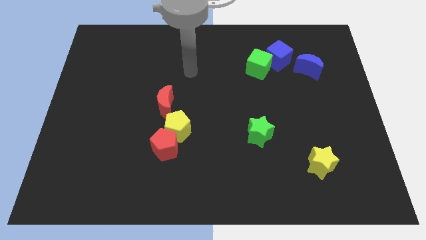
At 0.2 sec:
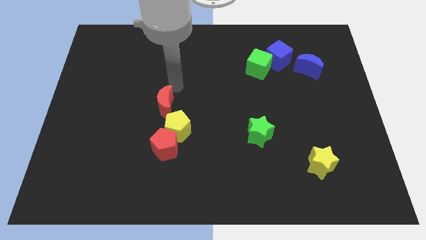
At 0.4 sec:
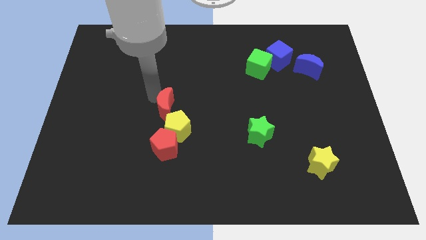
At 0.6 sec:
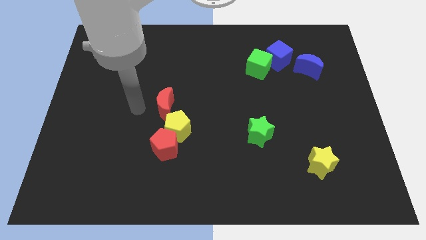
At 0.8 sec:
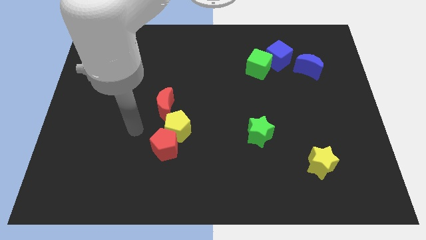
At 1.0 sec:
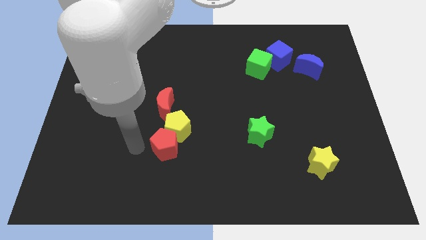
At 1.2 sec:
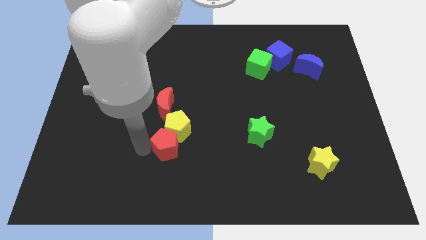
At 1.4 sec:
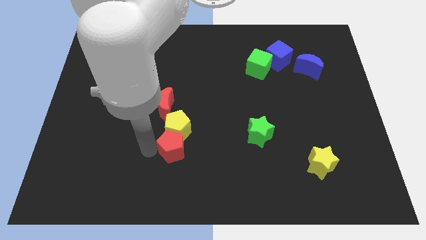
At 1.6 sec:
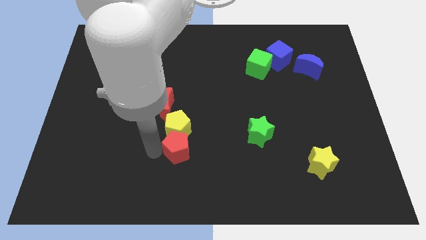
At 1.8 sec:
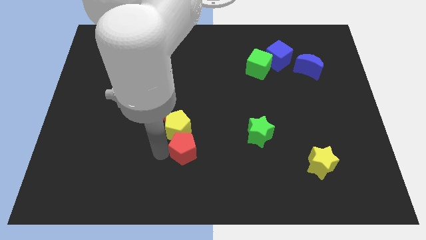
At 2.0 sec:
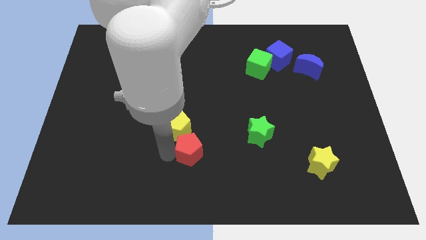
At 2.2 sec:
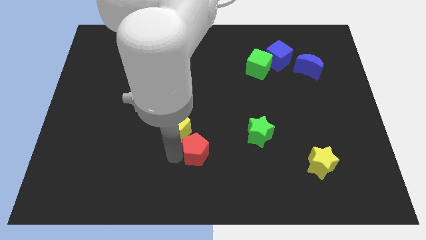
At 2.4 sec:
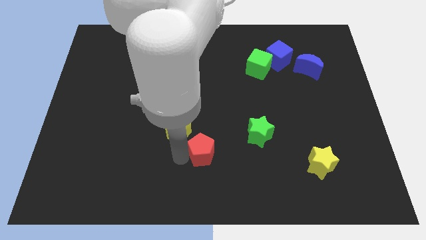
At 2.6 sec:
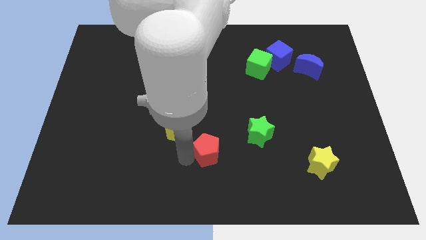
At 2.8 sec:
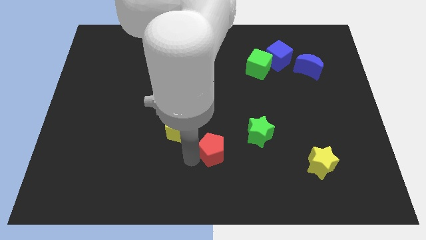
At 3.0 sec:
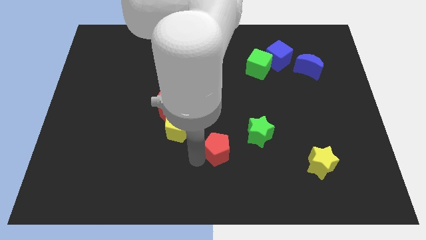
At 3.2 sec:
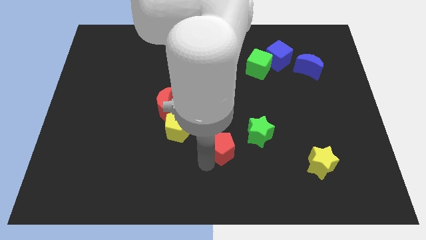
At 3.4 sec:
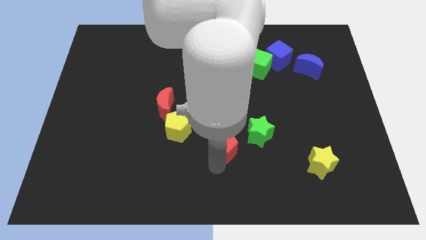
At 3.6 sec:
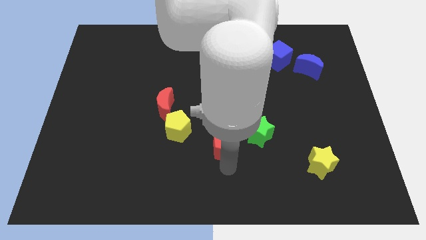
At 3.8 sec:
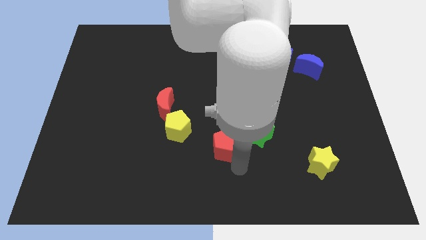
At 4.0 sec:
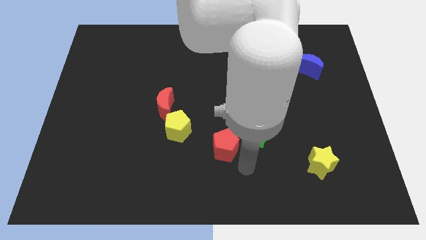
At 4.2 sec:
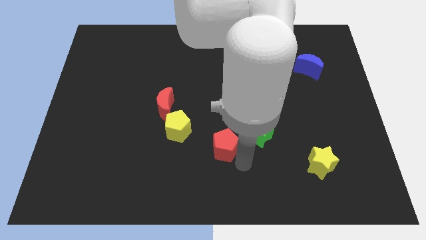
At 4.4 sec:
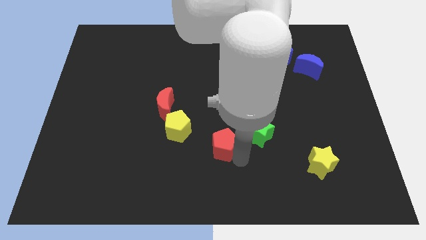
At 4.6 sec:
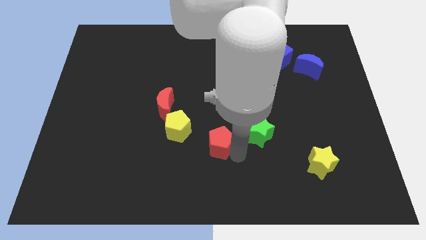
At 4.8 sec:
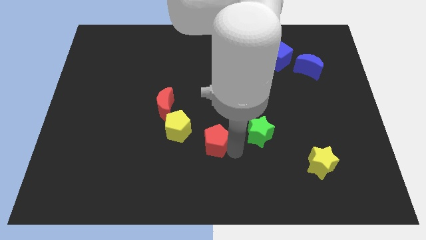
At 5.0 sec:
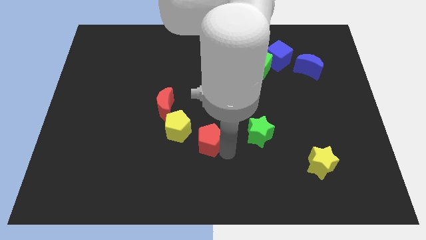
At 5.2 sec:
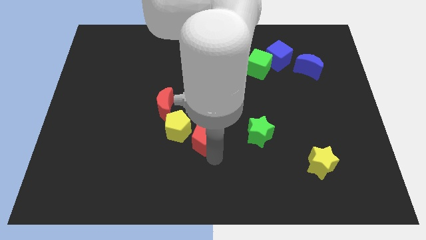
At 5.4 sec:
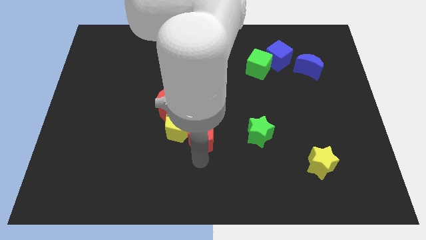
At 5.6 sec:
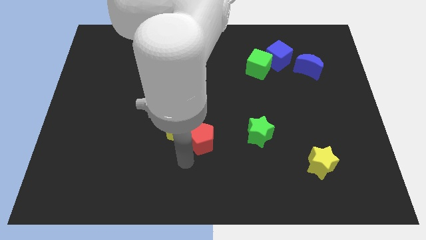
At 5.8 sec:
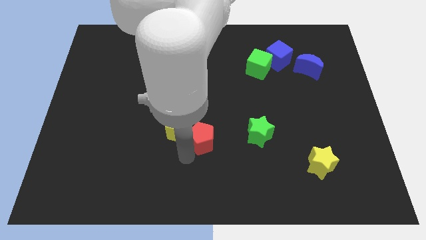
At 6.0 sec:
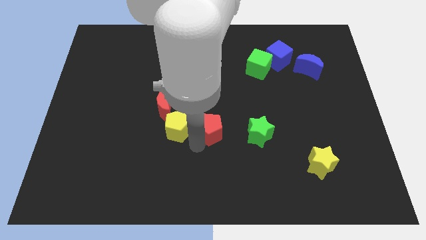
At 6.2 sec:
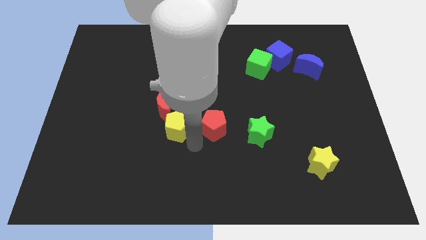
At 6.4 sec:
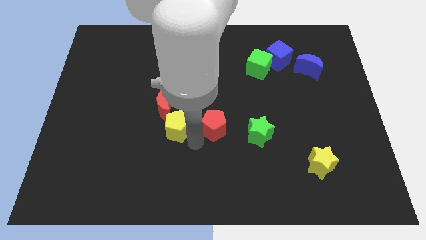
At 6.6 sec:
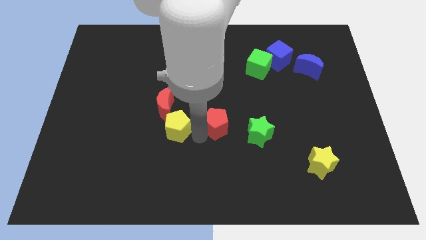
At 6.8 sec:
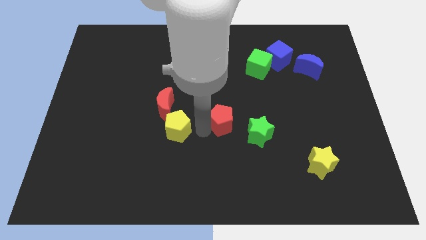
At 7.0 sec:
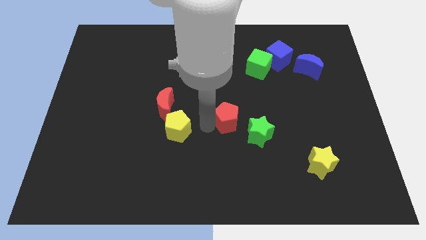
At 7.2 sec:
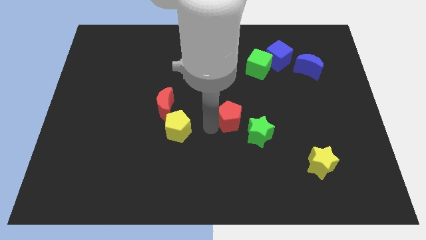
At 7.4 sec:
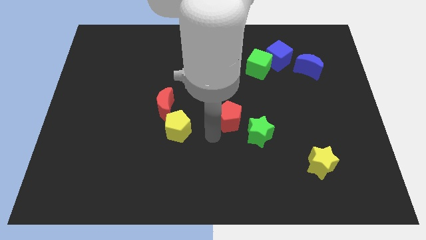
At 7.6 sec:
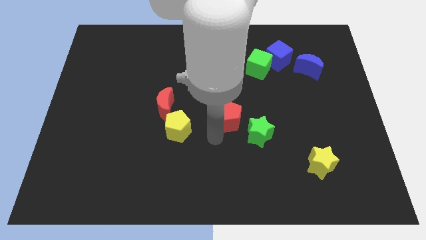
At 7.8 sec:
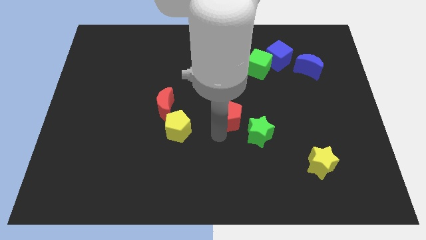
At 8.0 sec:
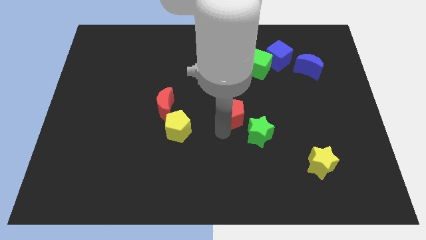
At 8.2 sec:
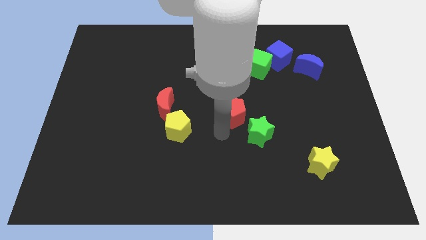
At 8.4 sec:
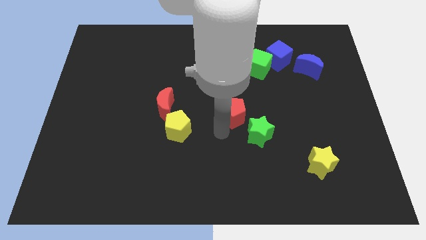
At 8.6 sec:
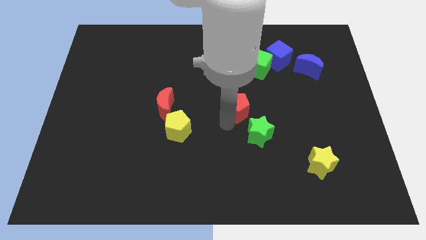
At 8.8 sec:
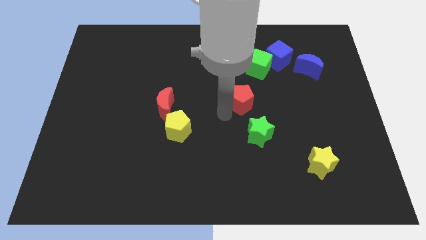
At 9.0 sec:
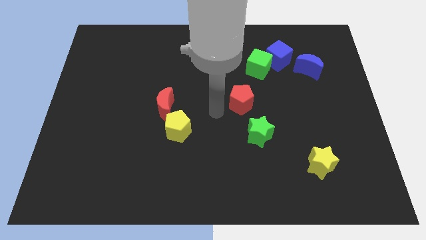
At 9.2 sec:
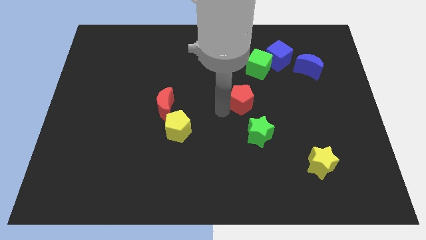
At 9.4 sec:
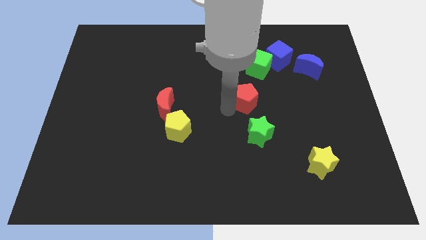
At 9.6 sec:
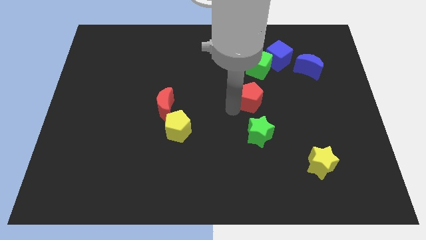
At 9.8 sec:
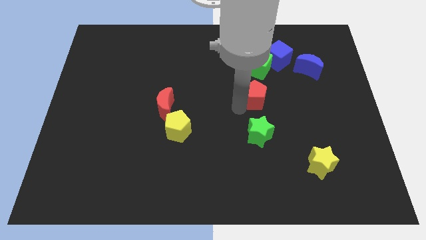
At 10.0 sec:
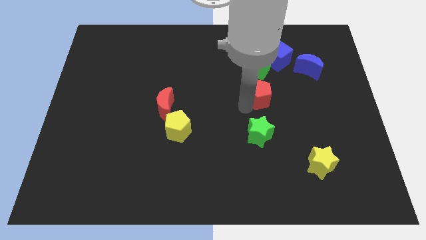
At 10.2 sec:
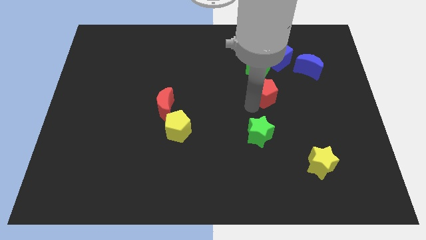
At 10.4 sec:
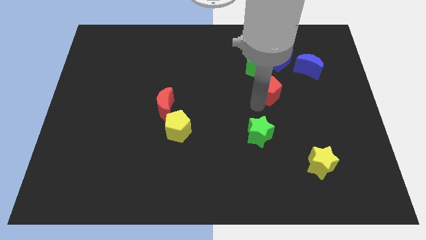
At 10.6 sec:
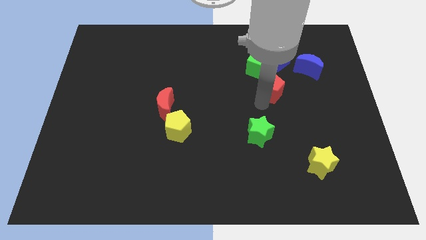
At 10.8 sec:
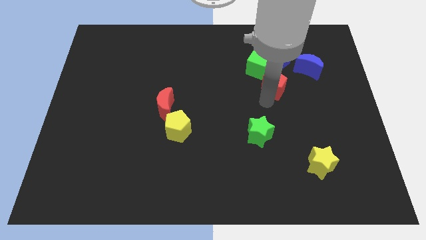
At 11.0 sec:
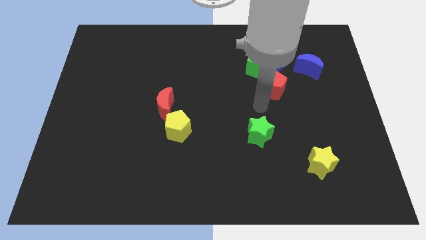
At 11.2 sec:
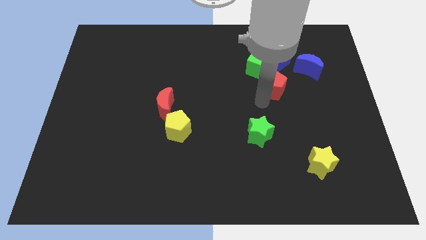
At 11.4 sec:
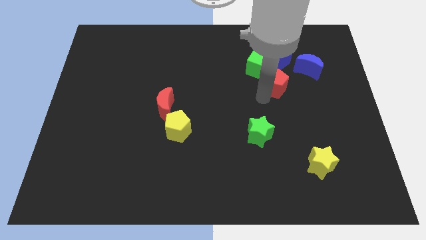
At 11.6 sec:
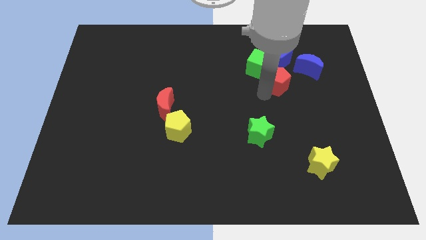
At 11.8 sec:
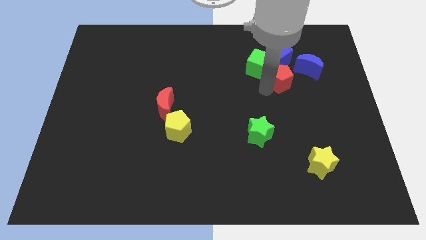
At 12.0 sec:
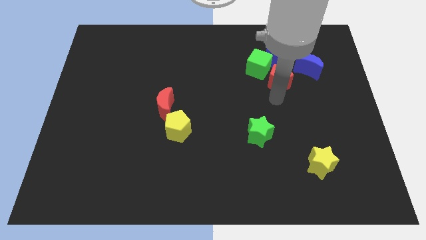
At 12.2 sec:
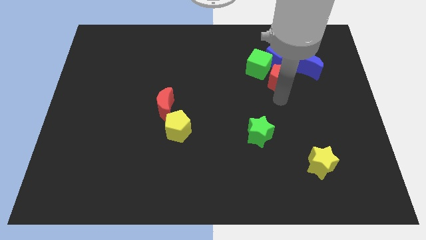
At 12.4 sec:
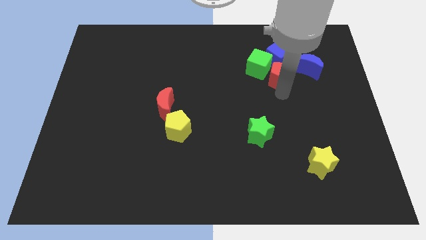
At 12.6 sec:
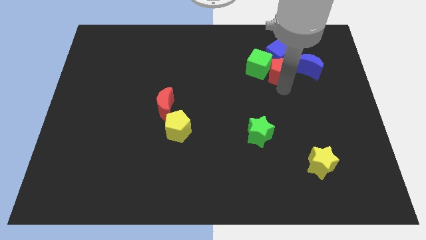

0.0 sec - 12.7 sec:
move the red pentagon next to the blue cube

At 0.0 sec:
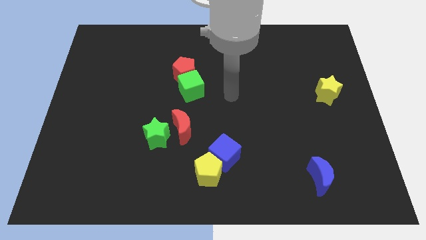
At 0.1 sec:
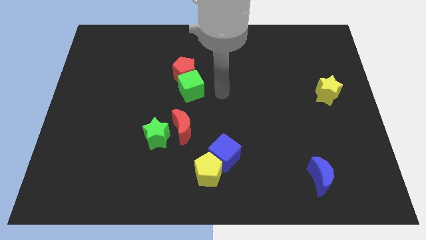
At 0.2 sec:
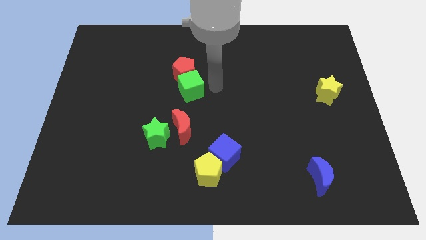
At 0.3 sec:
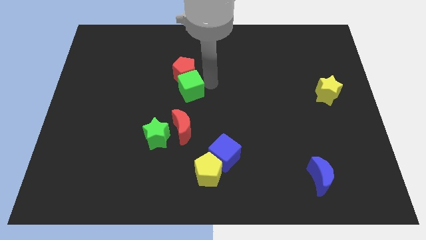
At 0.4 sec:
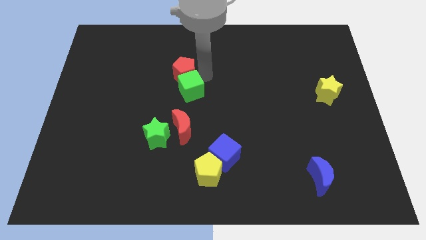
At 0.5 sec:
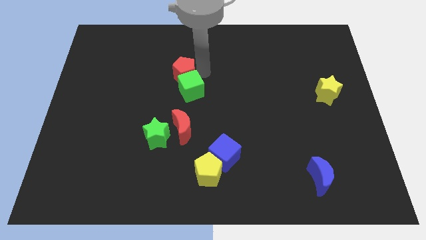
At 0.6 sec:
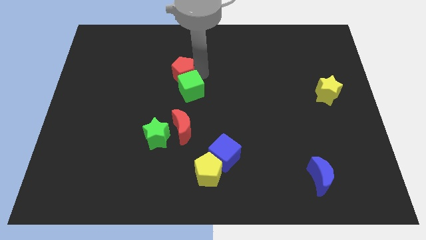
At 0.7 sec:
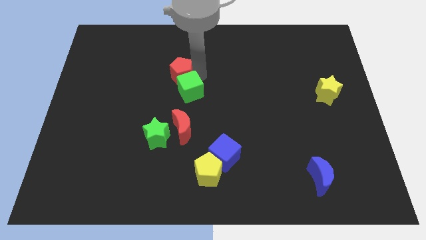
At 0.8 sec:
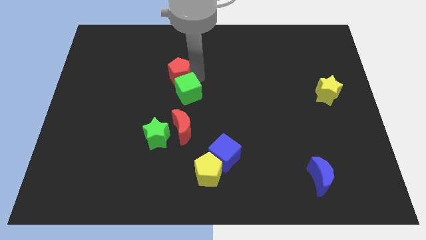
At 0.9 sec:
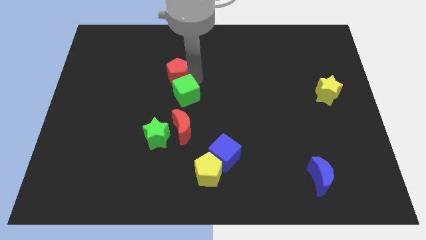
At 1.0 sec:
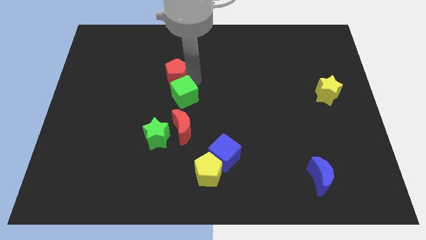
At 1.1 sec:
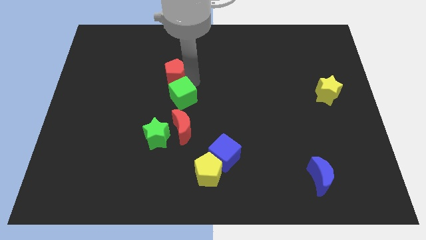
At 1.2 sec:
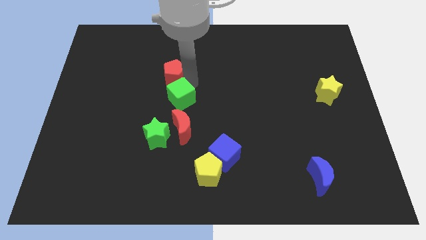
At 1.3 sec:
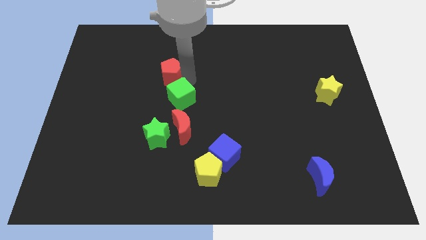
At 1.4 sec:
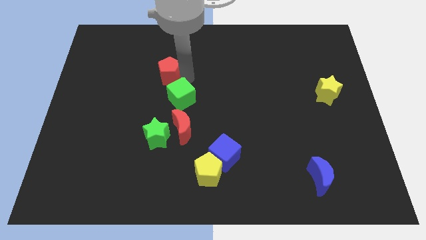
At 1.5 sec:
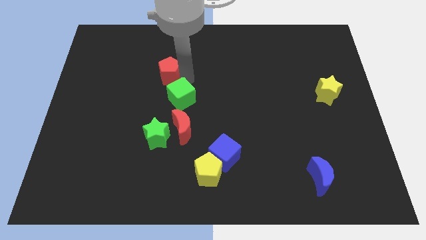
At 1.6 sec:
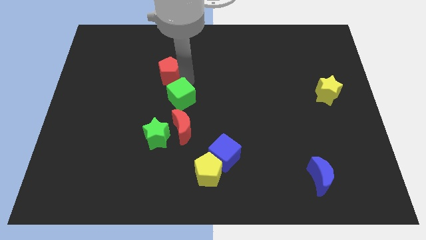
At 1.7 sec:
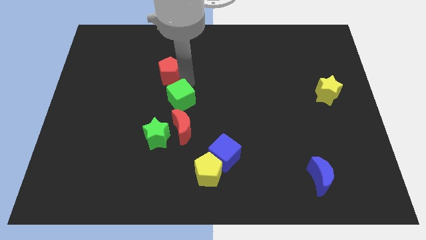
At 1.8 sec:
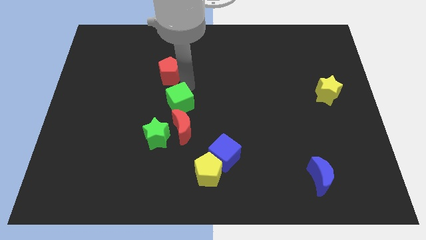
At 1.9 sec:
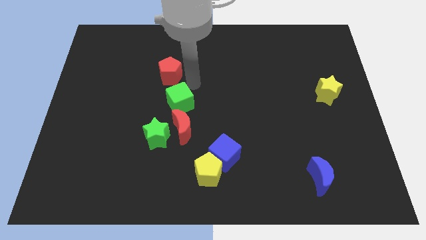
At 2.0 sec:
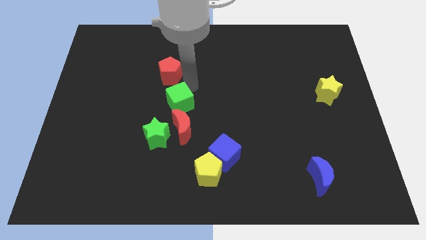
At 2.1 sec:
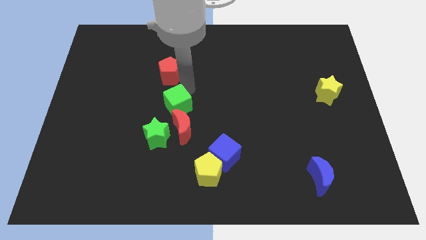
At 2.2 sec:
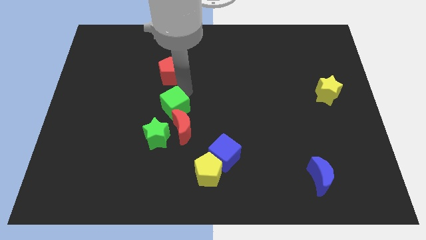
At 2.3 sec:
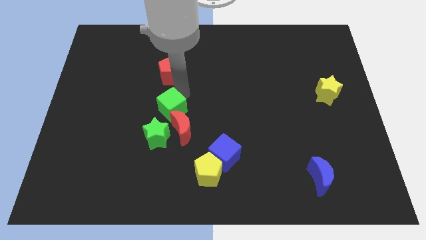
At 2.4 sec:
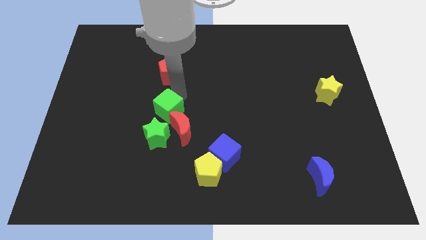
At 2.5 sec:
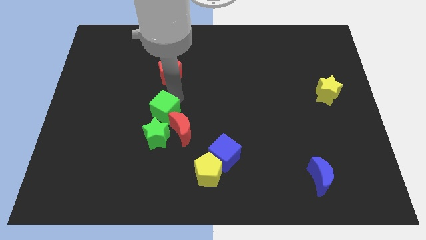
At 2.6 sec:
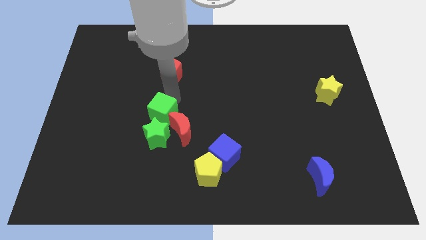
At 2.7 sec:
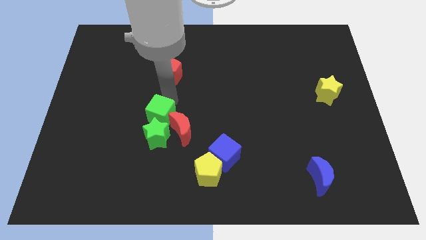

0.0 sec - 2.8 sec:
slide the green cube next to the green star
